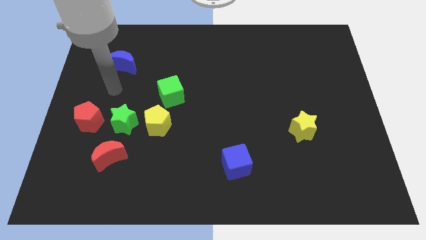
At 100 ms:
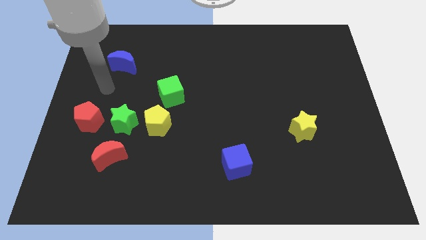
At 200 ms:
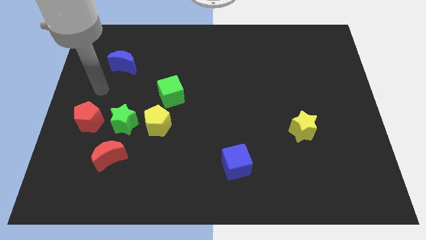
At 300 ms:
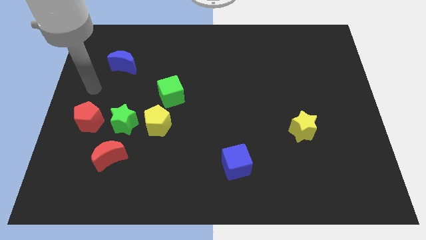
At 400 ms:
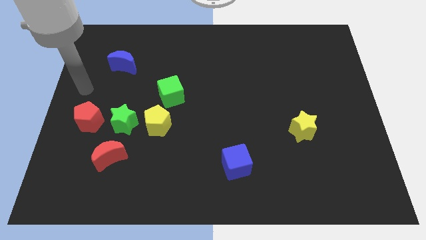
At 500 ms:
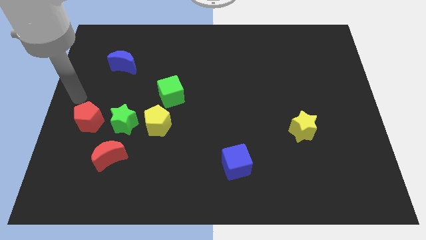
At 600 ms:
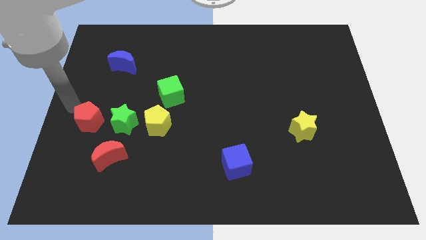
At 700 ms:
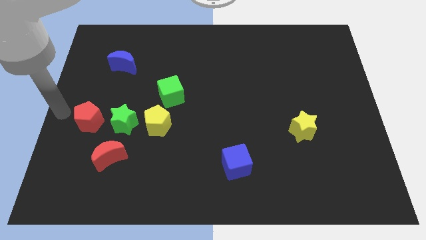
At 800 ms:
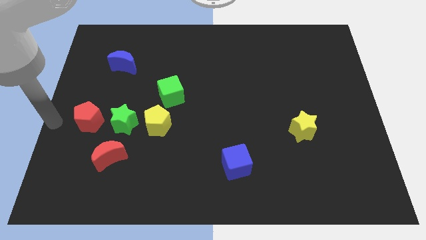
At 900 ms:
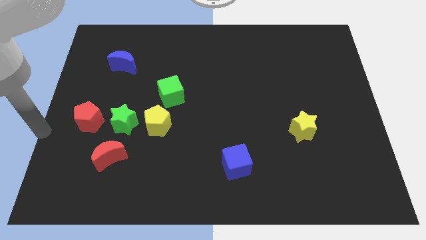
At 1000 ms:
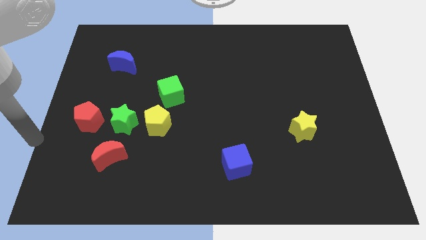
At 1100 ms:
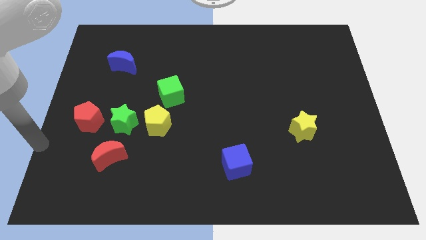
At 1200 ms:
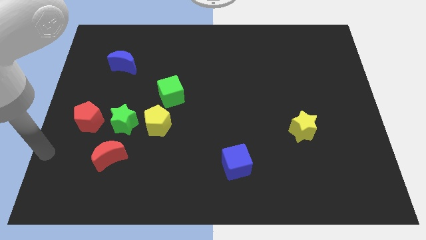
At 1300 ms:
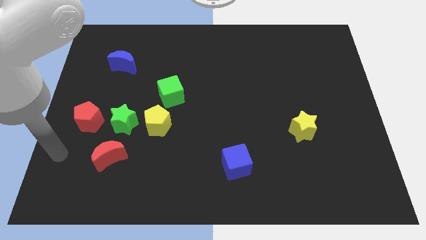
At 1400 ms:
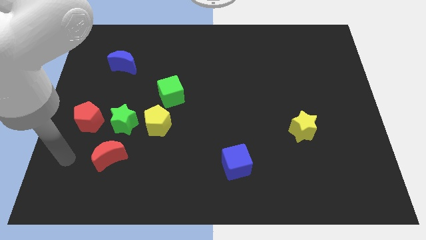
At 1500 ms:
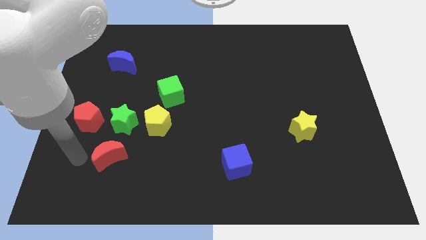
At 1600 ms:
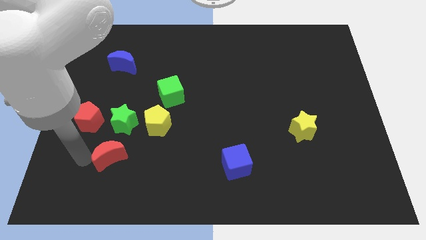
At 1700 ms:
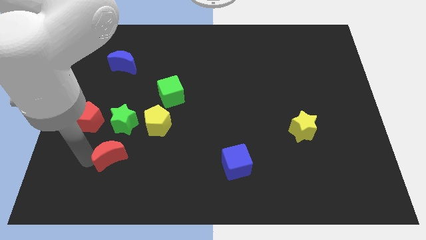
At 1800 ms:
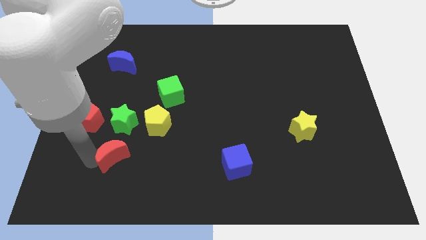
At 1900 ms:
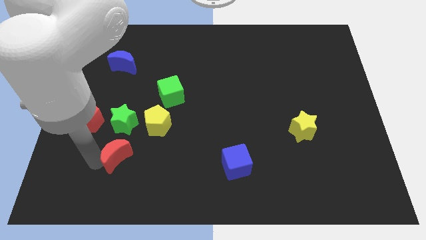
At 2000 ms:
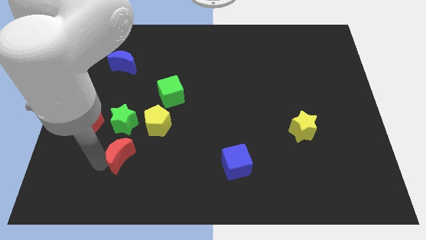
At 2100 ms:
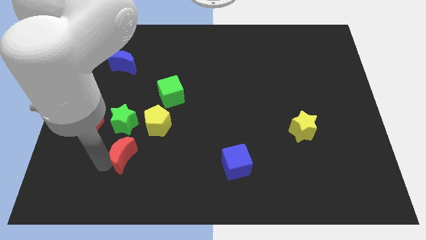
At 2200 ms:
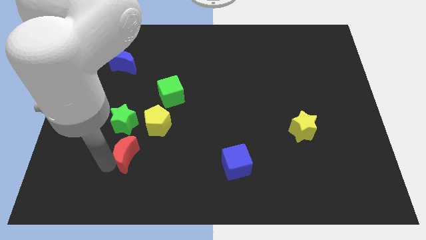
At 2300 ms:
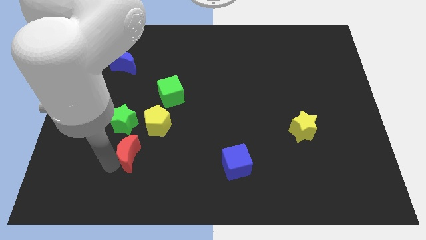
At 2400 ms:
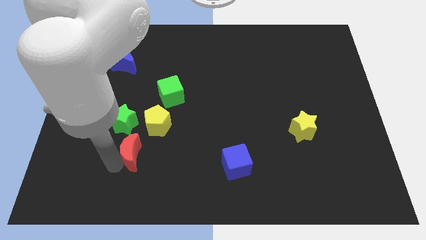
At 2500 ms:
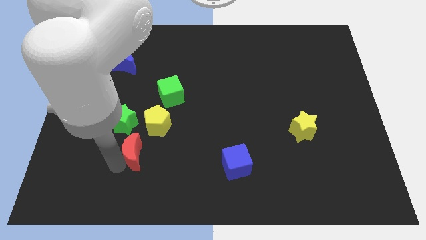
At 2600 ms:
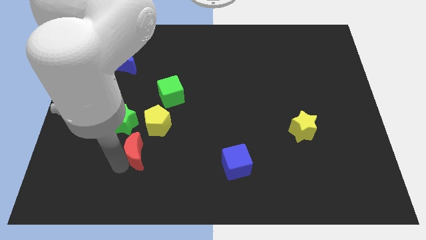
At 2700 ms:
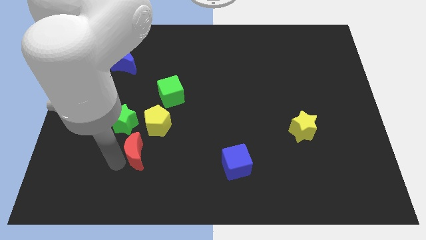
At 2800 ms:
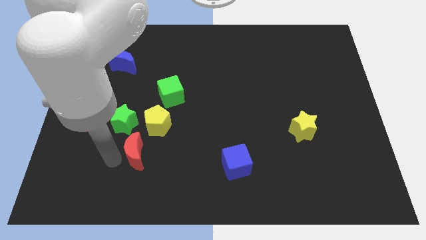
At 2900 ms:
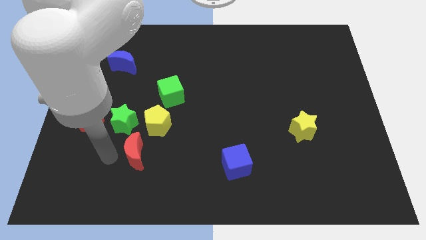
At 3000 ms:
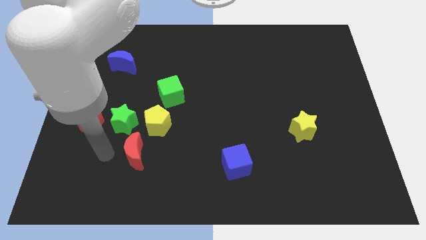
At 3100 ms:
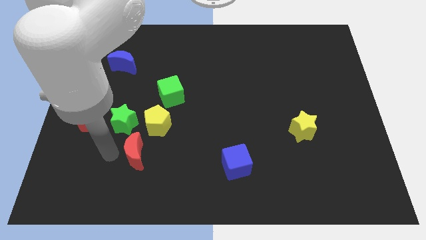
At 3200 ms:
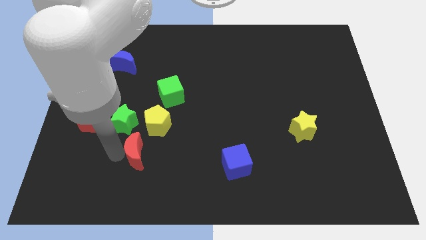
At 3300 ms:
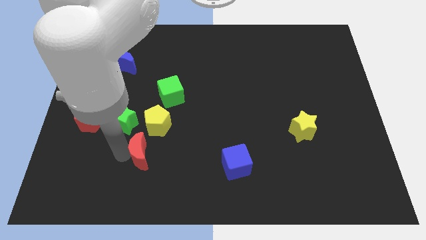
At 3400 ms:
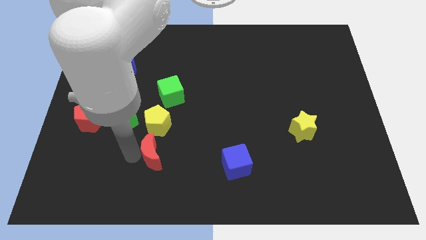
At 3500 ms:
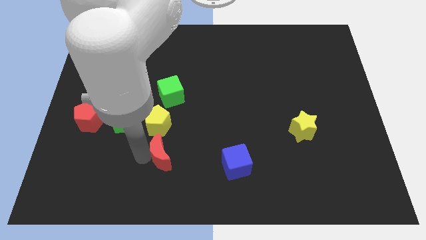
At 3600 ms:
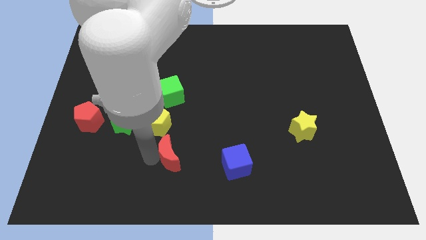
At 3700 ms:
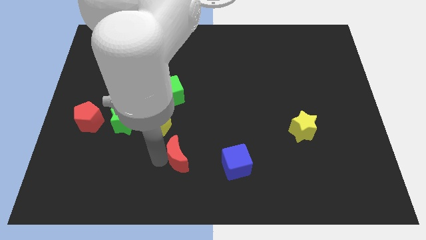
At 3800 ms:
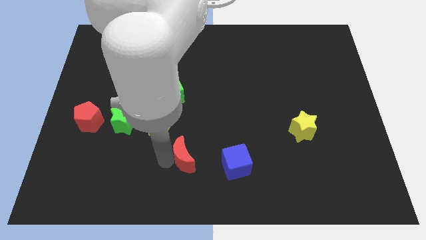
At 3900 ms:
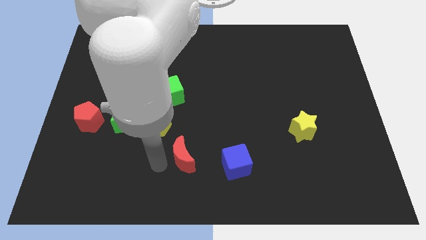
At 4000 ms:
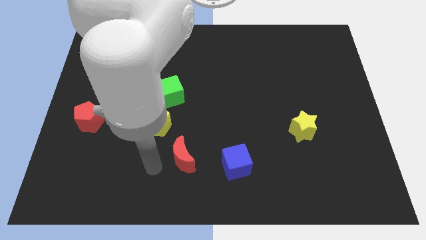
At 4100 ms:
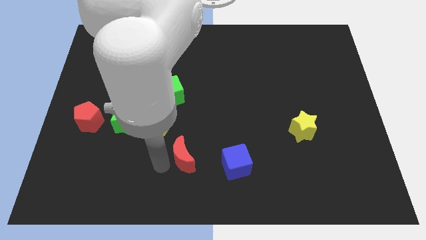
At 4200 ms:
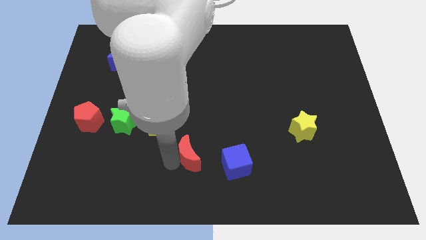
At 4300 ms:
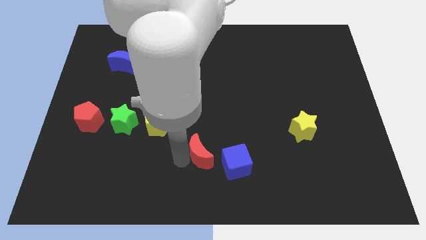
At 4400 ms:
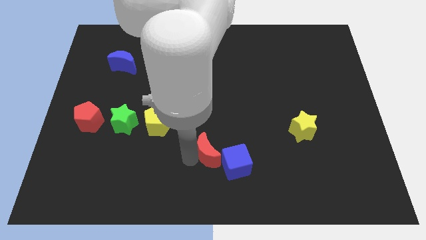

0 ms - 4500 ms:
push the red moon right

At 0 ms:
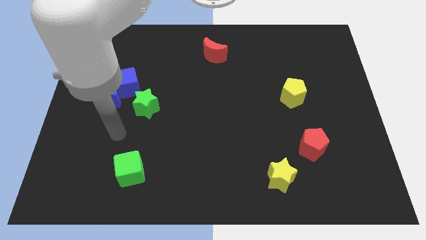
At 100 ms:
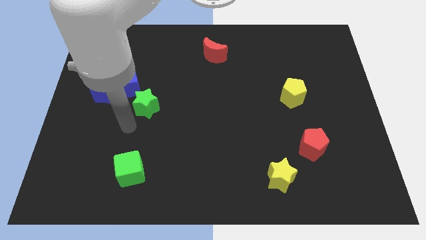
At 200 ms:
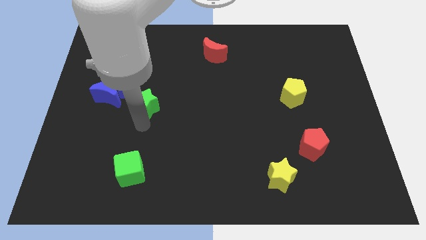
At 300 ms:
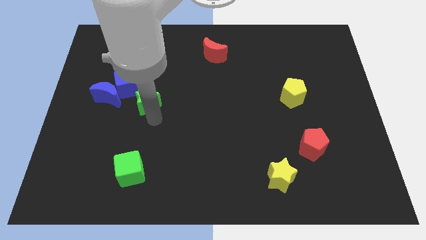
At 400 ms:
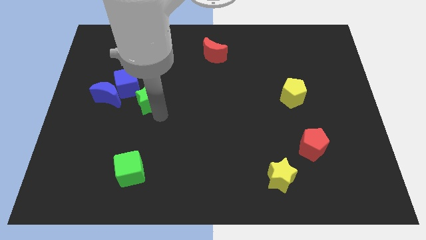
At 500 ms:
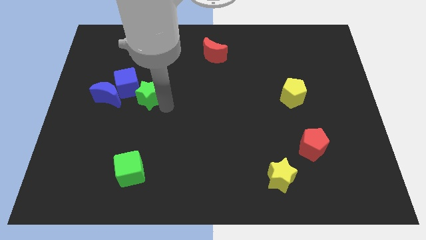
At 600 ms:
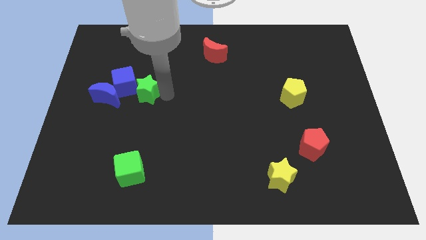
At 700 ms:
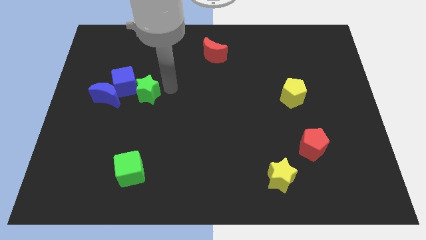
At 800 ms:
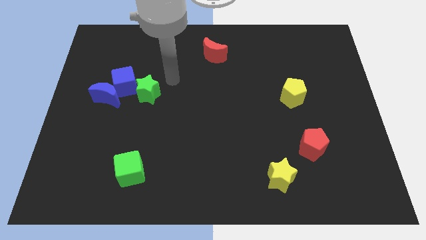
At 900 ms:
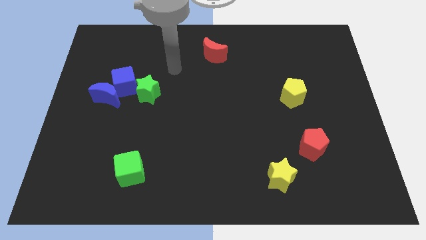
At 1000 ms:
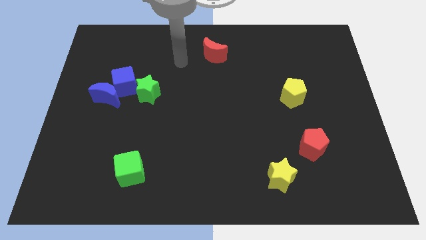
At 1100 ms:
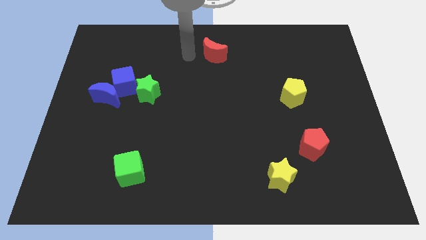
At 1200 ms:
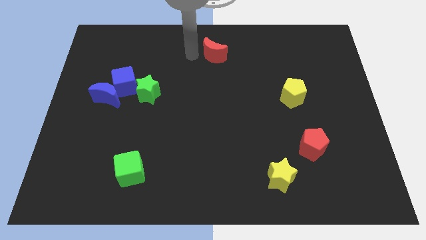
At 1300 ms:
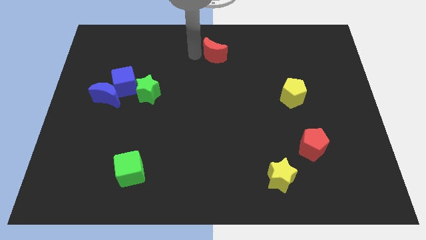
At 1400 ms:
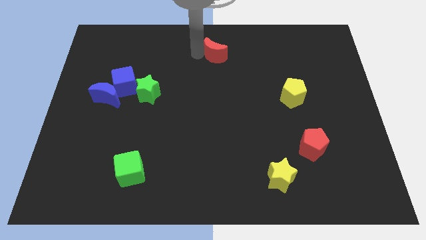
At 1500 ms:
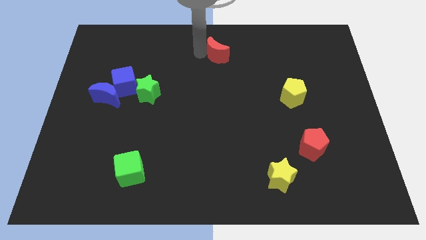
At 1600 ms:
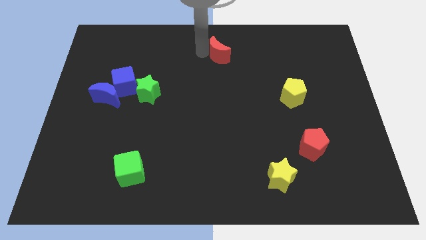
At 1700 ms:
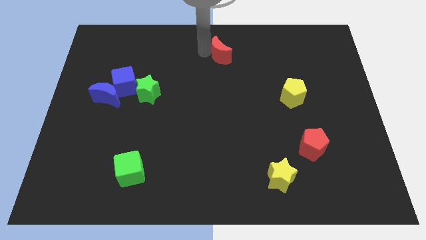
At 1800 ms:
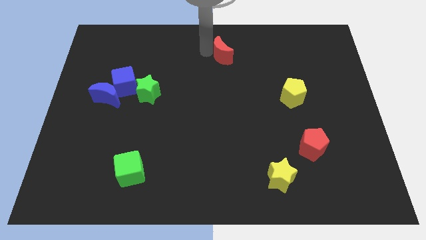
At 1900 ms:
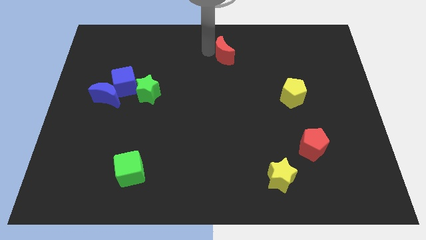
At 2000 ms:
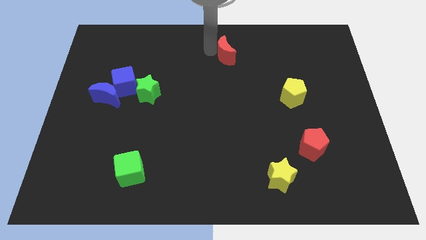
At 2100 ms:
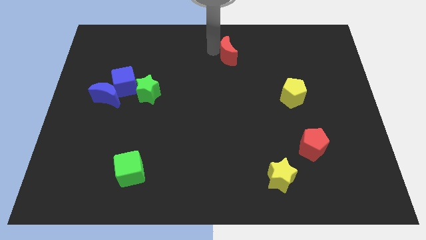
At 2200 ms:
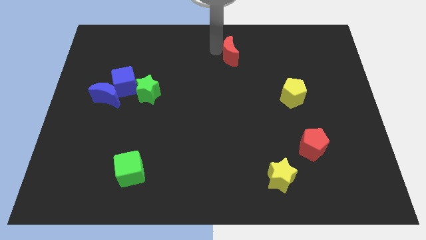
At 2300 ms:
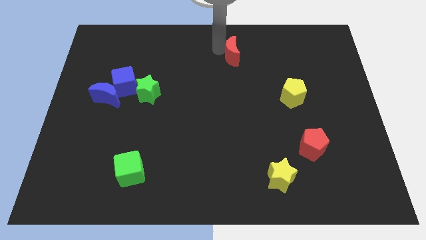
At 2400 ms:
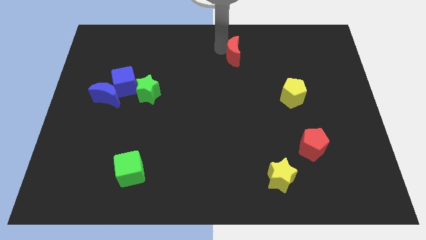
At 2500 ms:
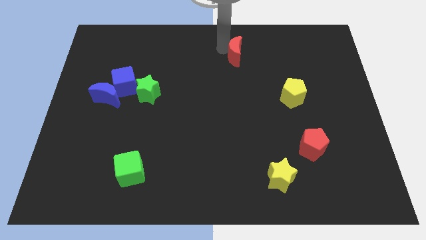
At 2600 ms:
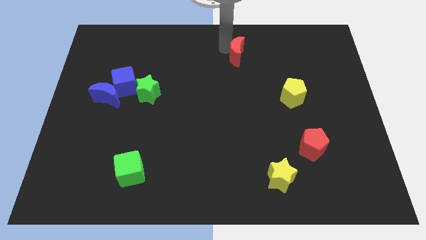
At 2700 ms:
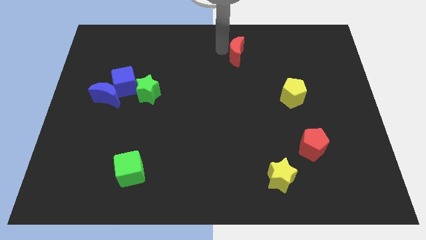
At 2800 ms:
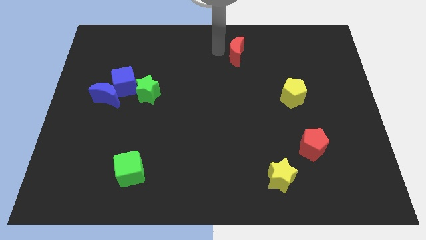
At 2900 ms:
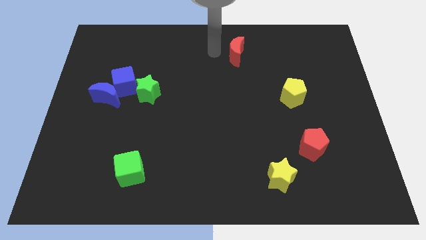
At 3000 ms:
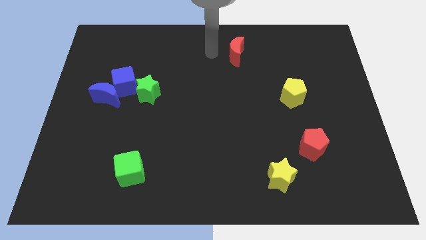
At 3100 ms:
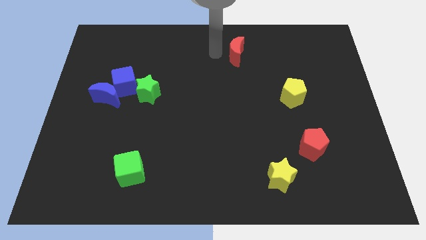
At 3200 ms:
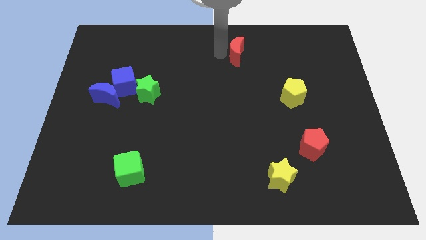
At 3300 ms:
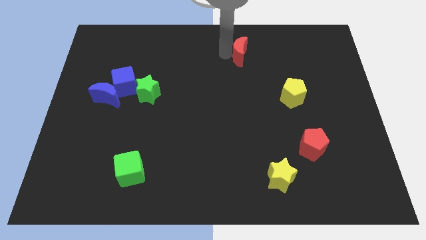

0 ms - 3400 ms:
slide the red moon right a little

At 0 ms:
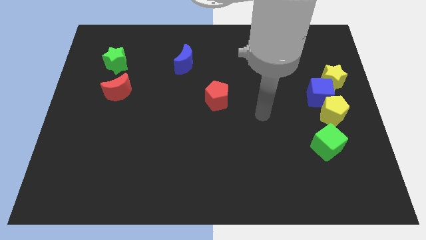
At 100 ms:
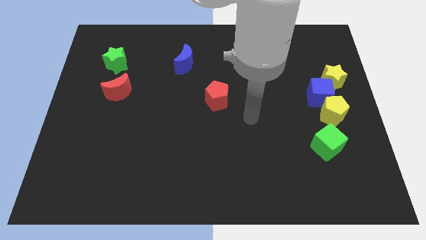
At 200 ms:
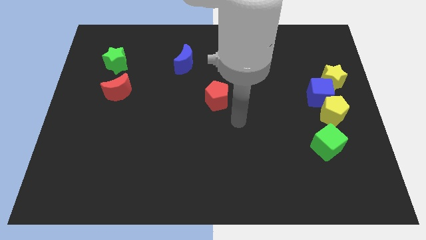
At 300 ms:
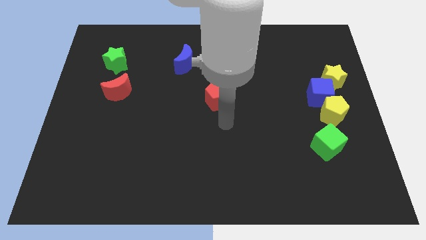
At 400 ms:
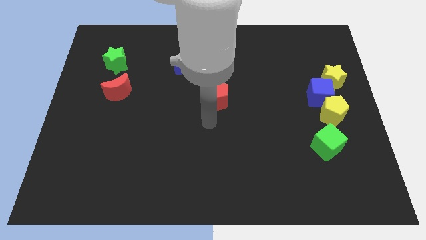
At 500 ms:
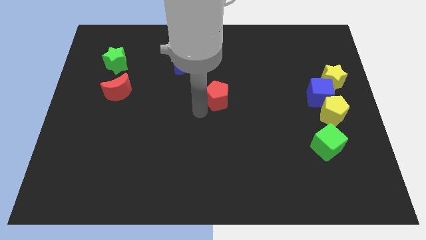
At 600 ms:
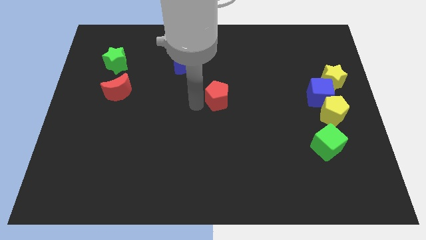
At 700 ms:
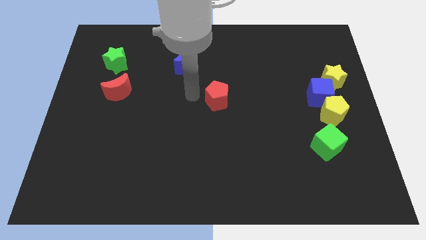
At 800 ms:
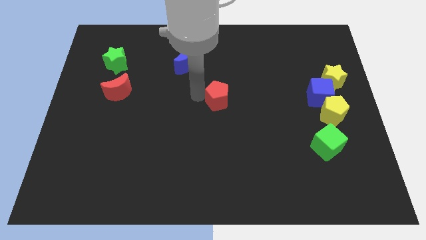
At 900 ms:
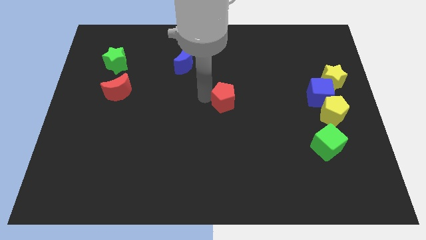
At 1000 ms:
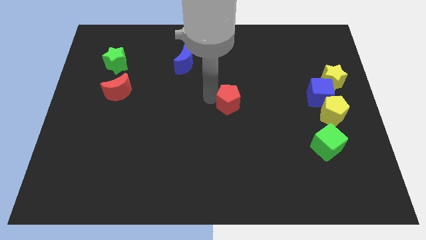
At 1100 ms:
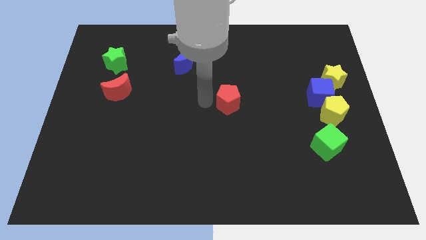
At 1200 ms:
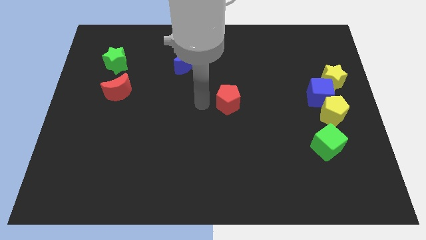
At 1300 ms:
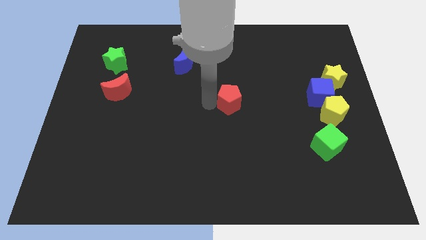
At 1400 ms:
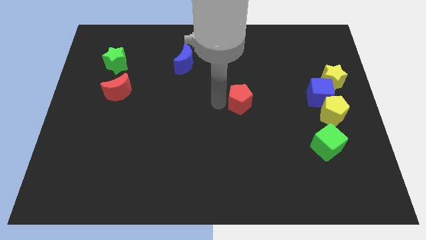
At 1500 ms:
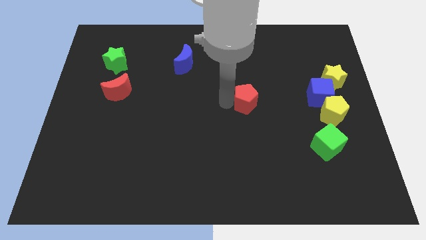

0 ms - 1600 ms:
move the red pentagon right somewhat
